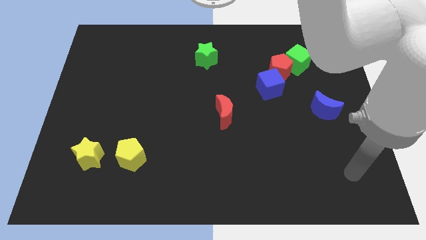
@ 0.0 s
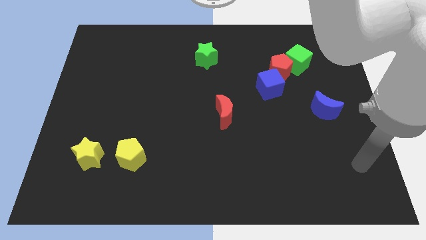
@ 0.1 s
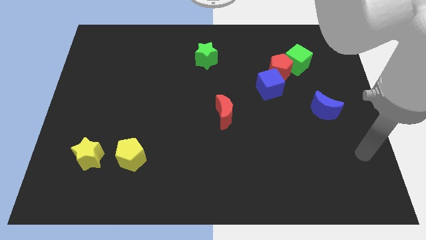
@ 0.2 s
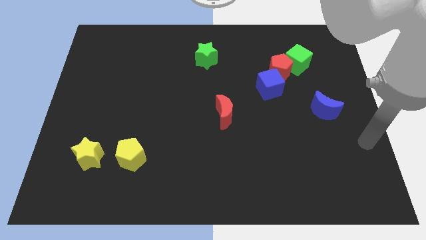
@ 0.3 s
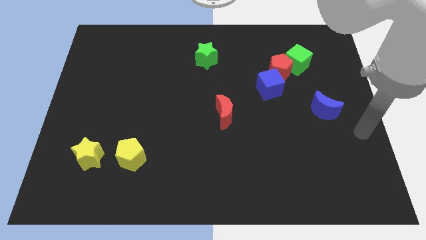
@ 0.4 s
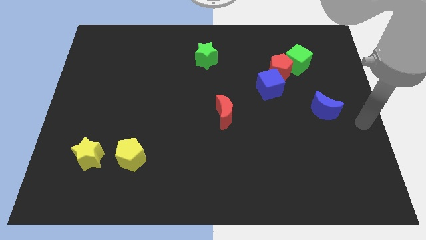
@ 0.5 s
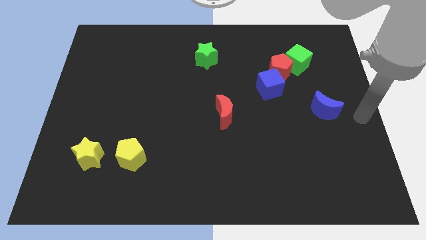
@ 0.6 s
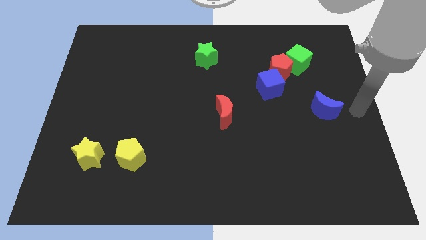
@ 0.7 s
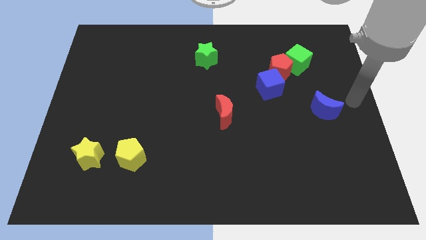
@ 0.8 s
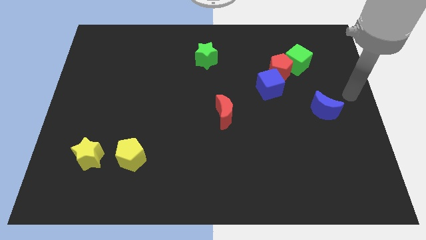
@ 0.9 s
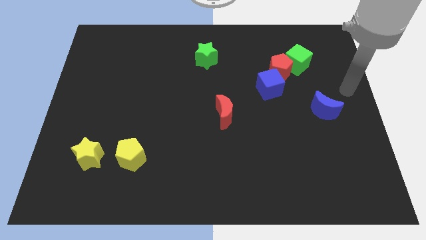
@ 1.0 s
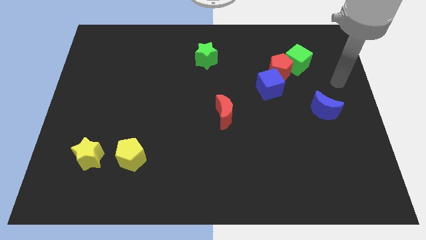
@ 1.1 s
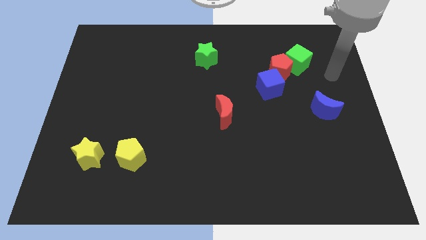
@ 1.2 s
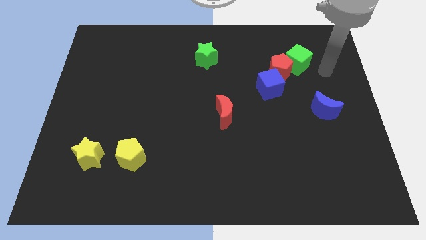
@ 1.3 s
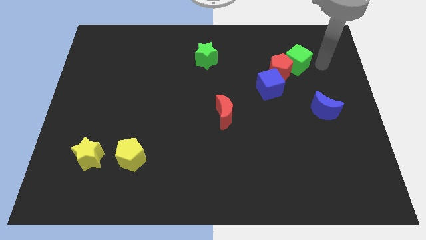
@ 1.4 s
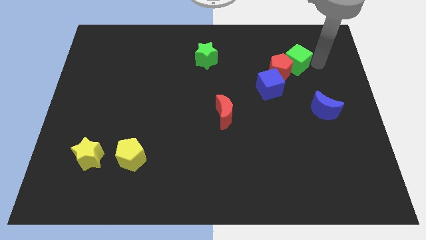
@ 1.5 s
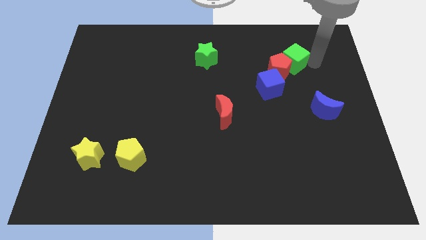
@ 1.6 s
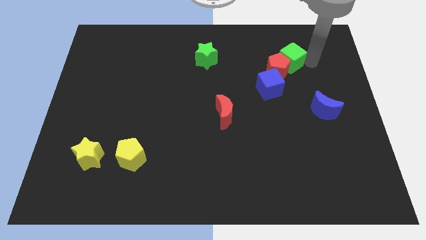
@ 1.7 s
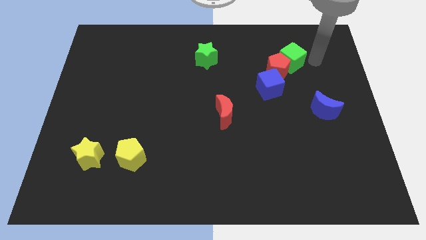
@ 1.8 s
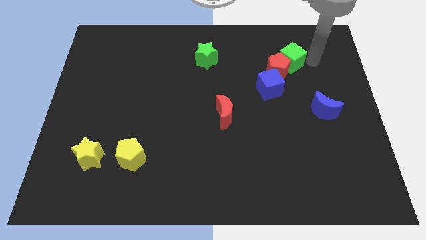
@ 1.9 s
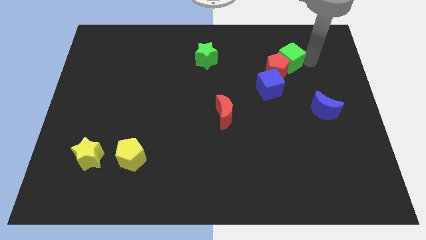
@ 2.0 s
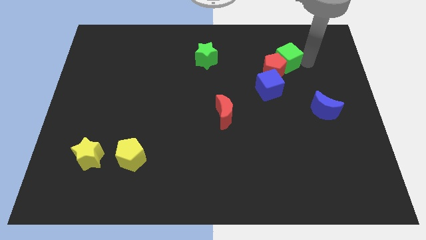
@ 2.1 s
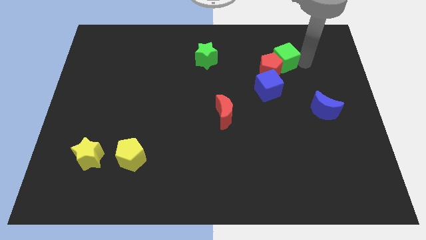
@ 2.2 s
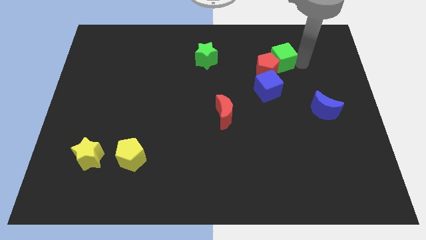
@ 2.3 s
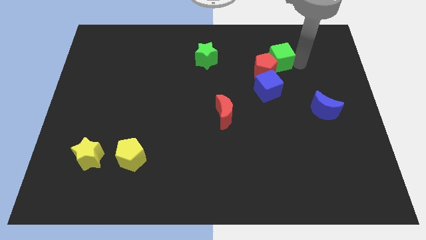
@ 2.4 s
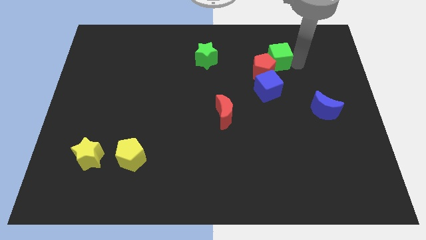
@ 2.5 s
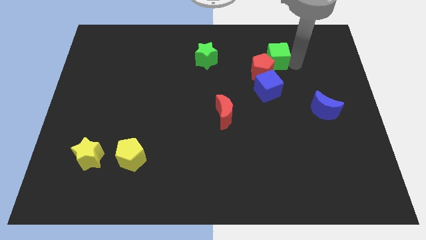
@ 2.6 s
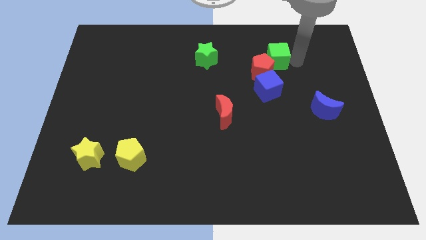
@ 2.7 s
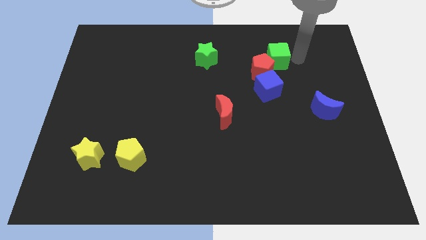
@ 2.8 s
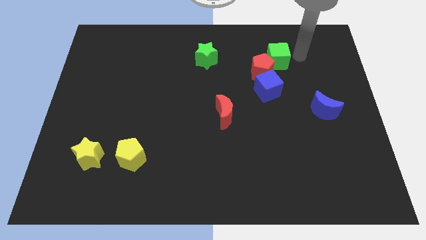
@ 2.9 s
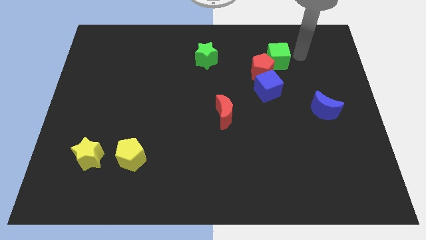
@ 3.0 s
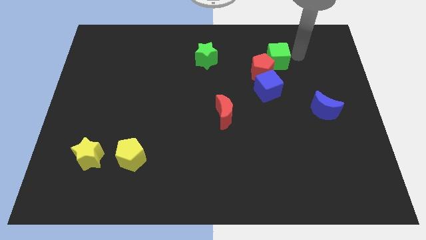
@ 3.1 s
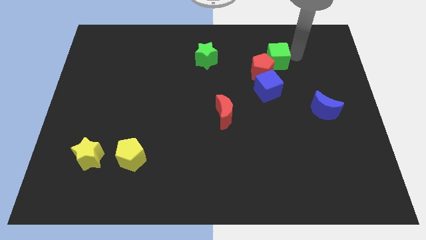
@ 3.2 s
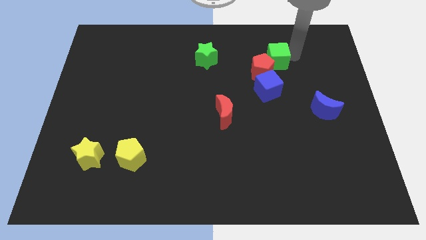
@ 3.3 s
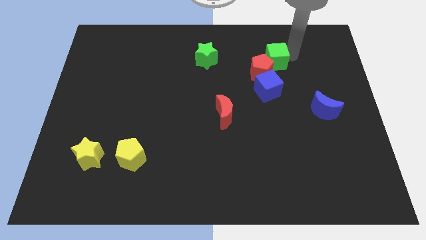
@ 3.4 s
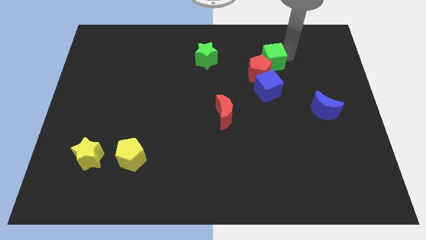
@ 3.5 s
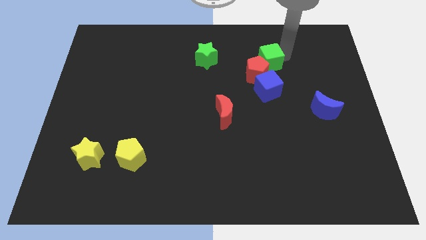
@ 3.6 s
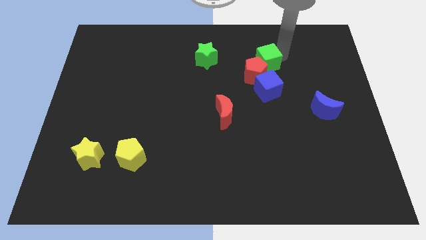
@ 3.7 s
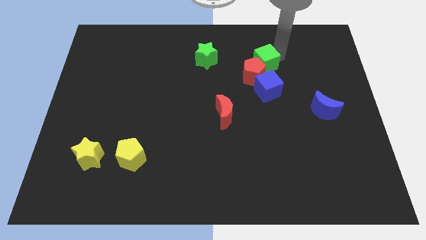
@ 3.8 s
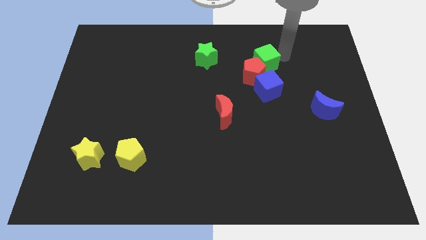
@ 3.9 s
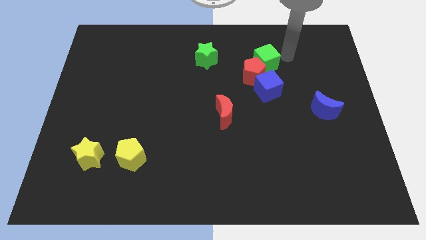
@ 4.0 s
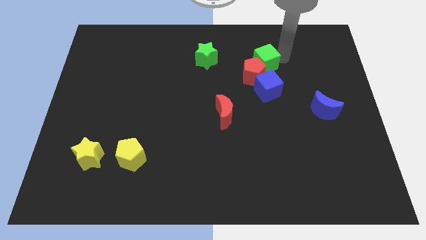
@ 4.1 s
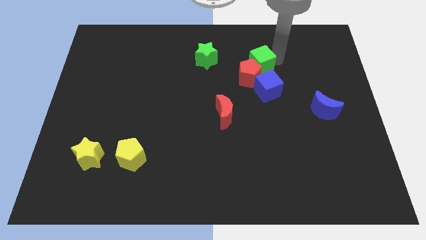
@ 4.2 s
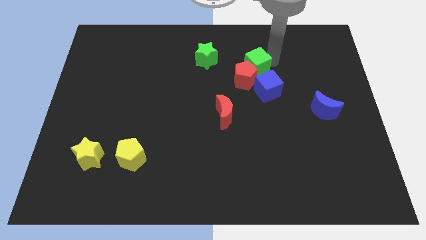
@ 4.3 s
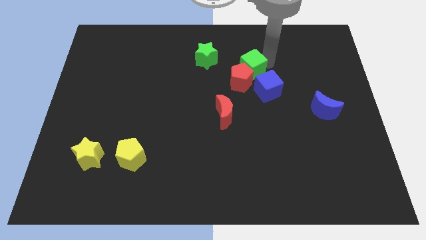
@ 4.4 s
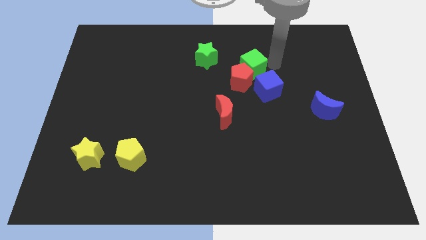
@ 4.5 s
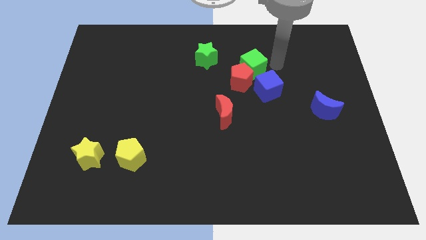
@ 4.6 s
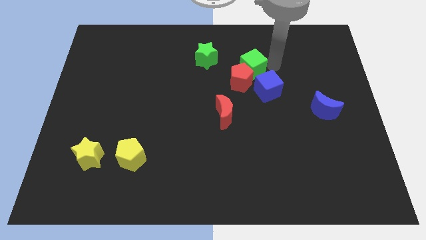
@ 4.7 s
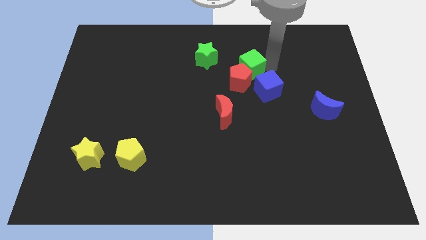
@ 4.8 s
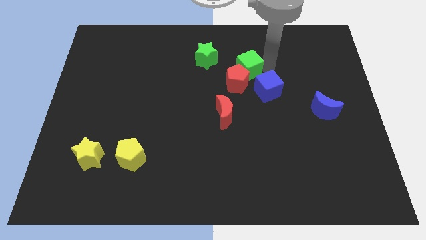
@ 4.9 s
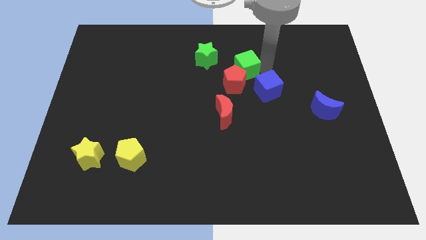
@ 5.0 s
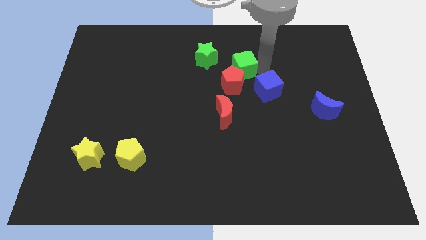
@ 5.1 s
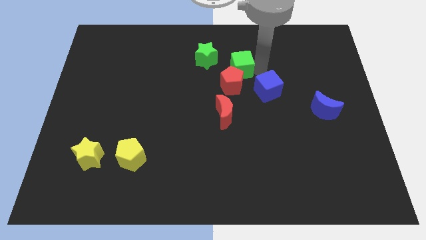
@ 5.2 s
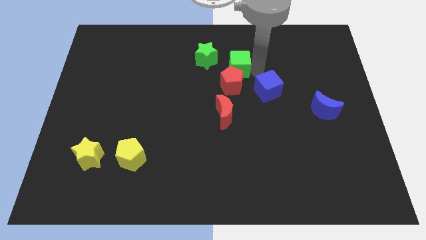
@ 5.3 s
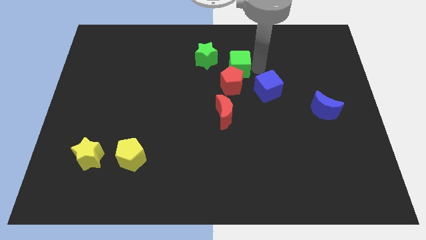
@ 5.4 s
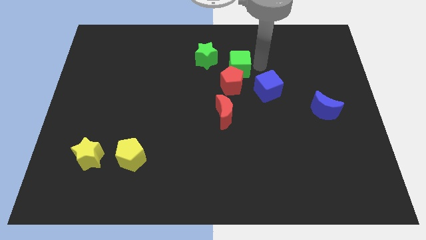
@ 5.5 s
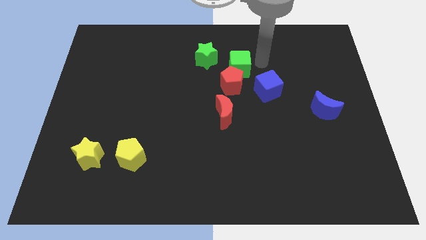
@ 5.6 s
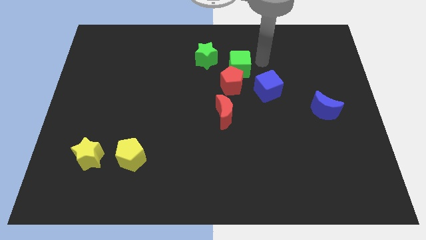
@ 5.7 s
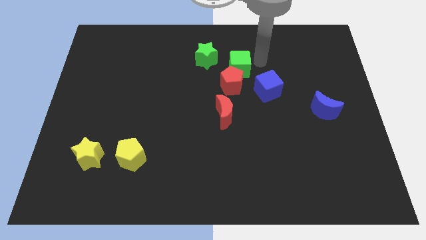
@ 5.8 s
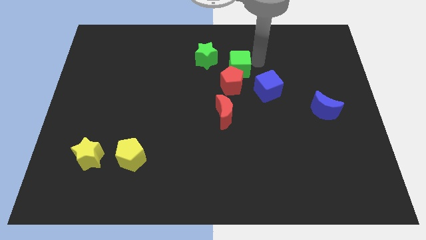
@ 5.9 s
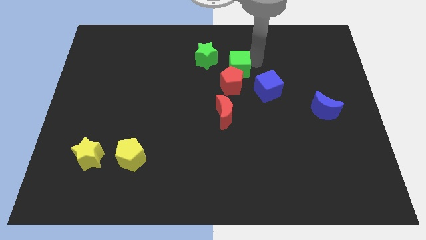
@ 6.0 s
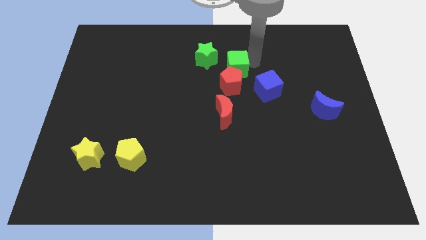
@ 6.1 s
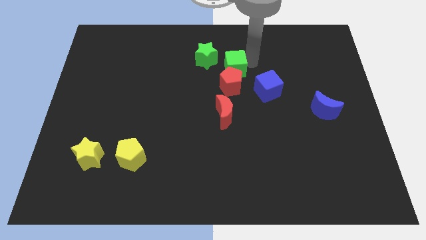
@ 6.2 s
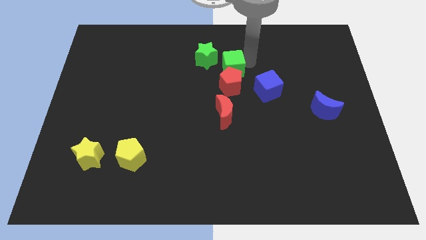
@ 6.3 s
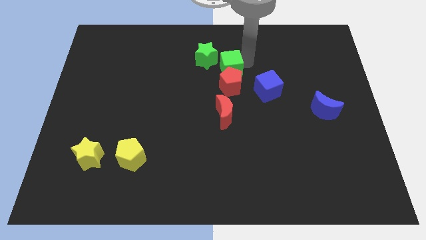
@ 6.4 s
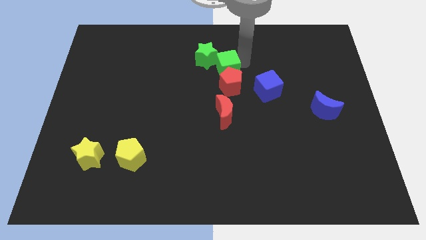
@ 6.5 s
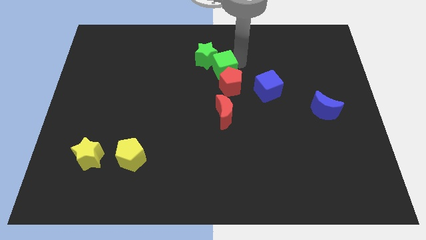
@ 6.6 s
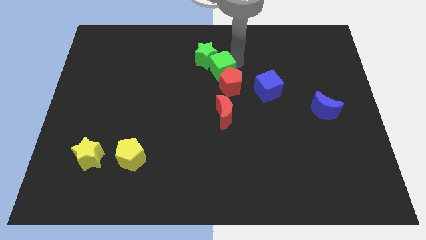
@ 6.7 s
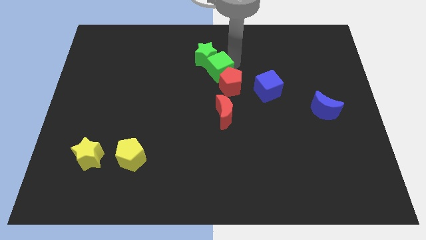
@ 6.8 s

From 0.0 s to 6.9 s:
slide the green cube to the left

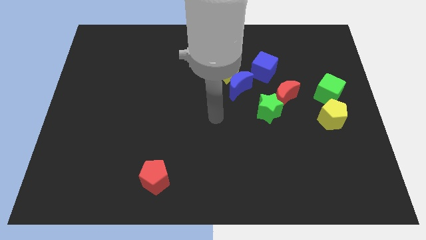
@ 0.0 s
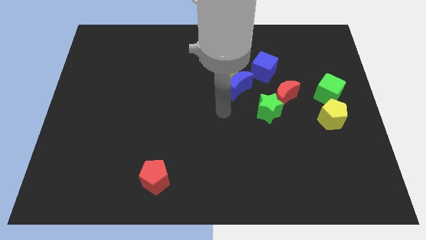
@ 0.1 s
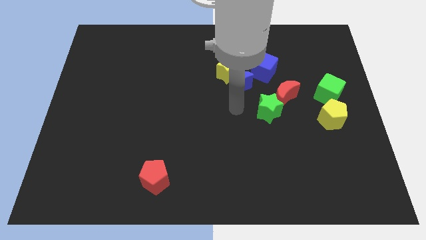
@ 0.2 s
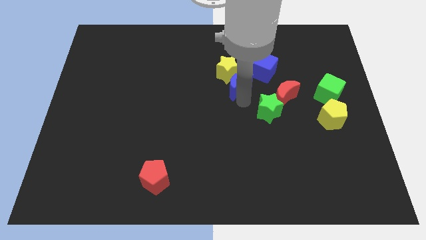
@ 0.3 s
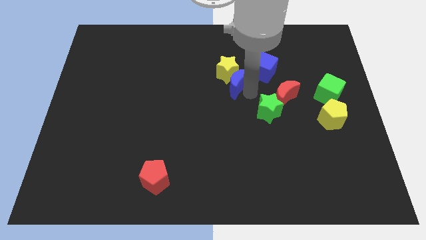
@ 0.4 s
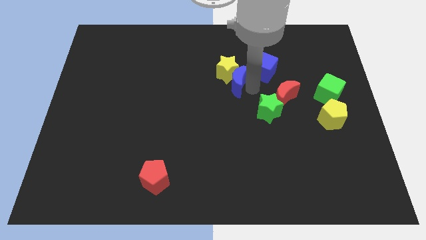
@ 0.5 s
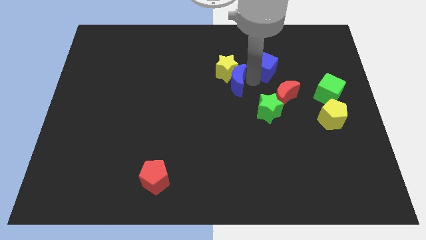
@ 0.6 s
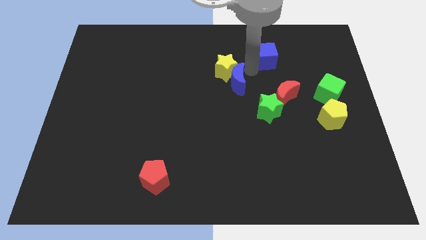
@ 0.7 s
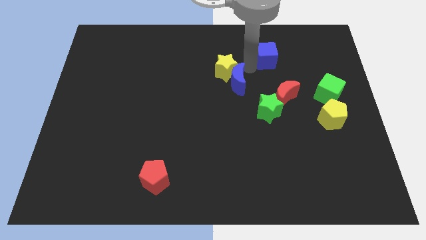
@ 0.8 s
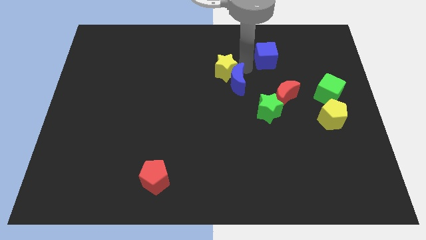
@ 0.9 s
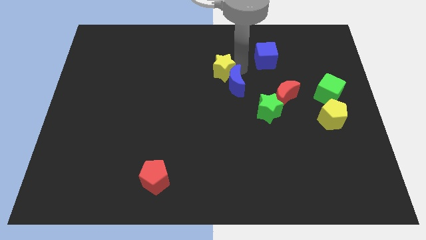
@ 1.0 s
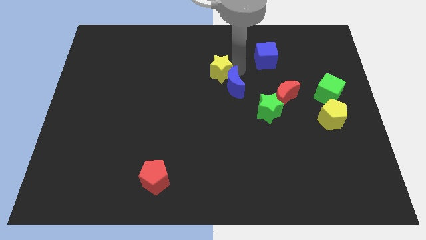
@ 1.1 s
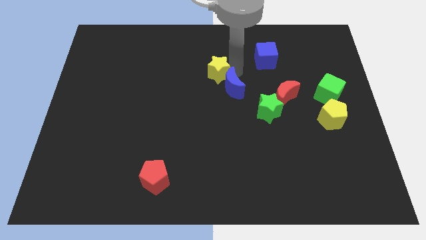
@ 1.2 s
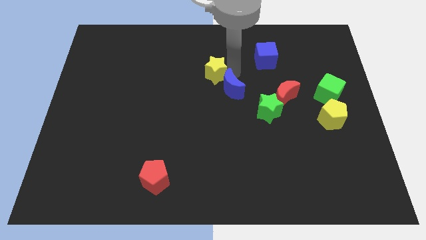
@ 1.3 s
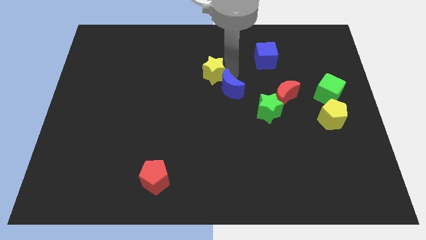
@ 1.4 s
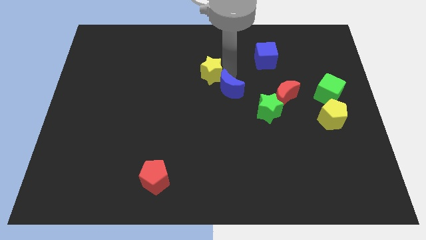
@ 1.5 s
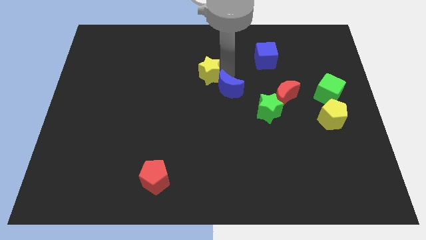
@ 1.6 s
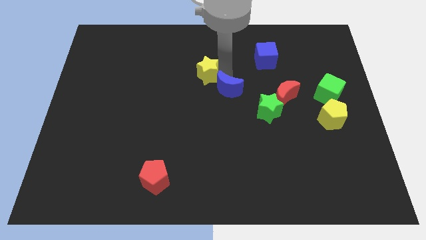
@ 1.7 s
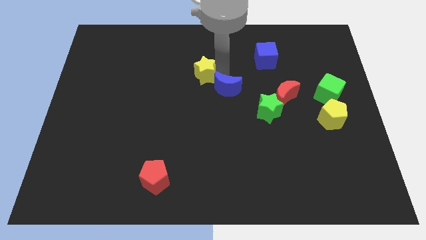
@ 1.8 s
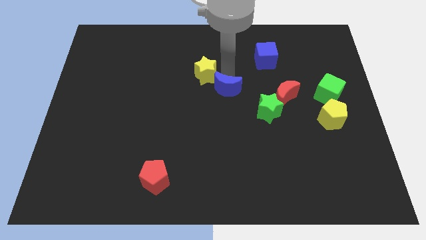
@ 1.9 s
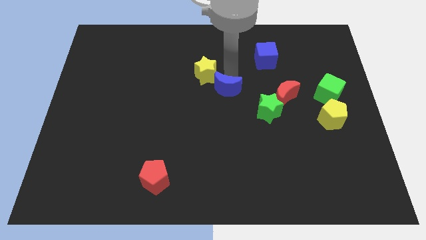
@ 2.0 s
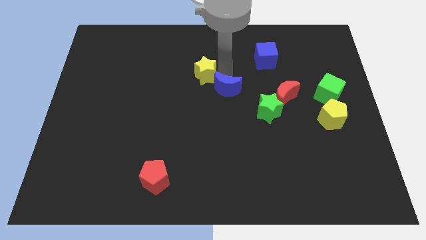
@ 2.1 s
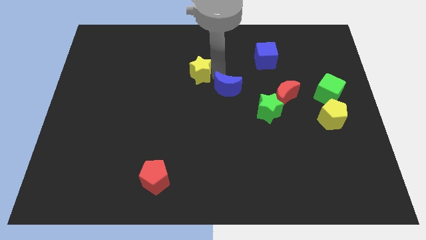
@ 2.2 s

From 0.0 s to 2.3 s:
move the yellow star somewhat to the left
